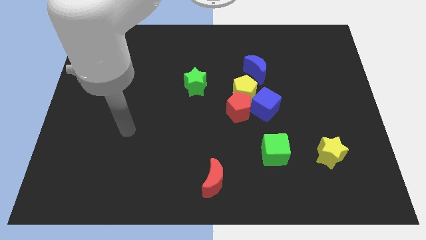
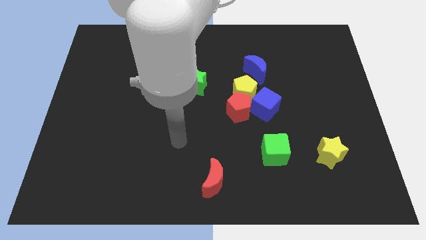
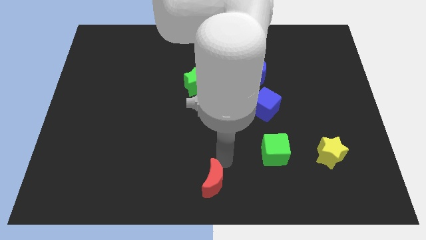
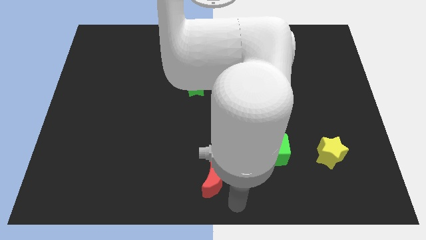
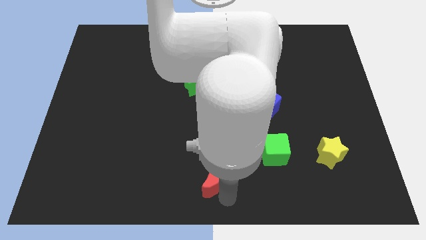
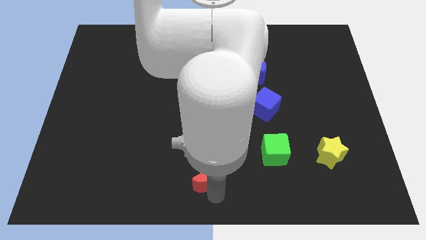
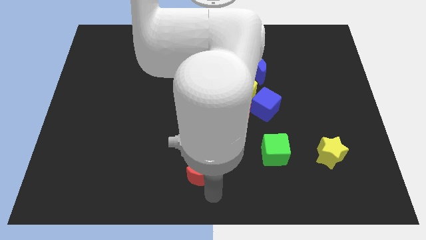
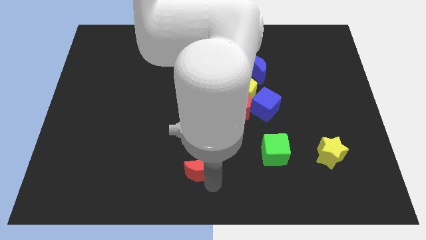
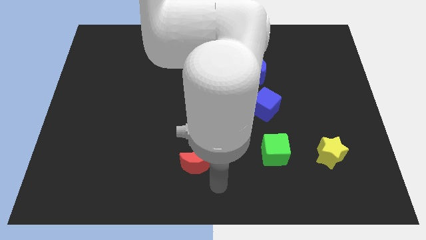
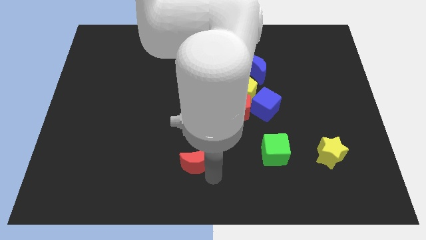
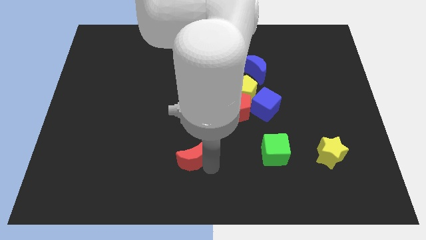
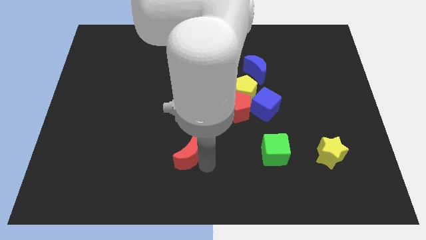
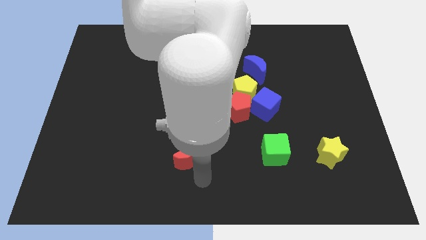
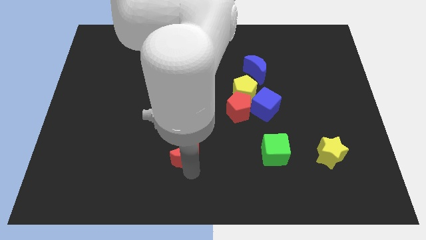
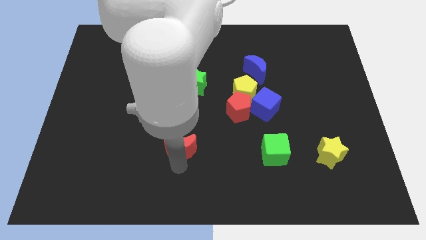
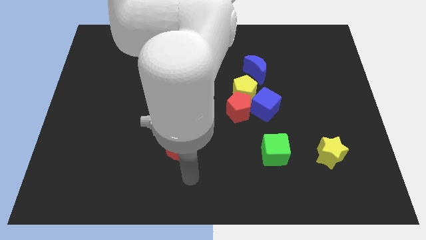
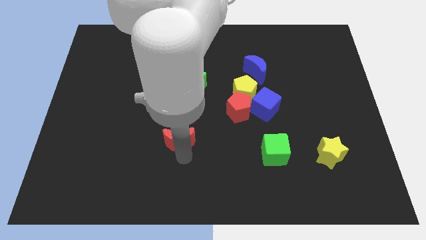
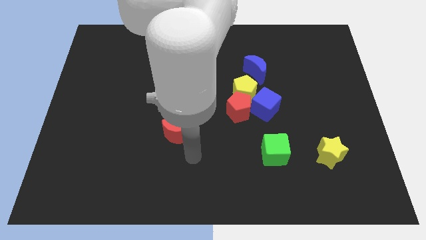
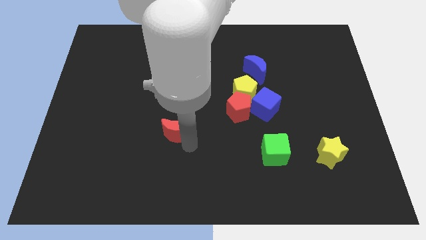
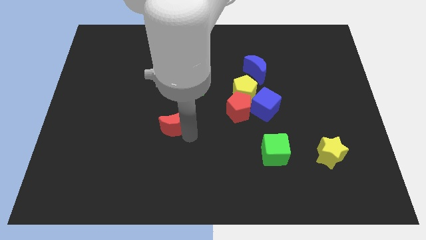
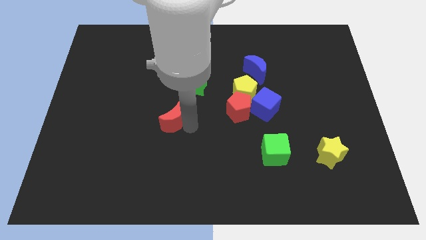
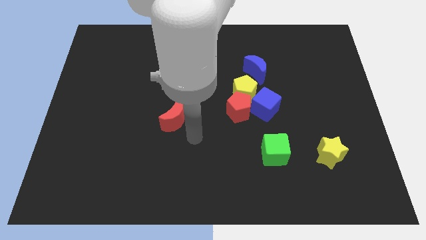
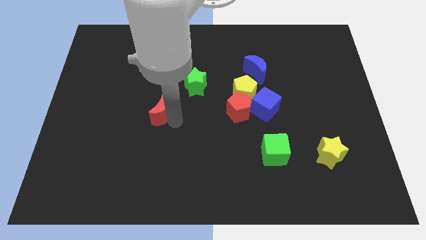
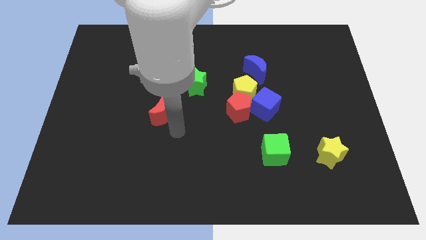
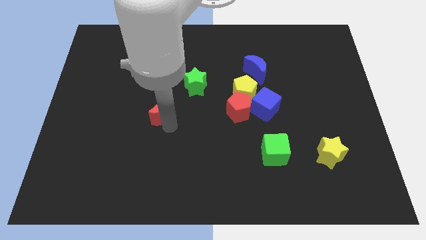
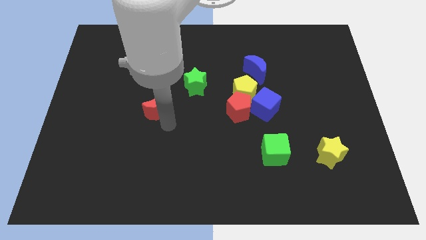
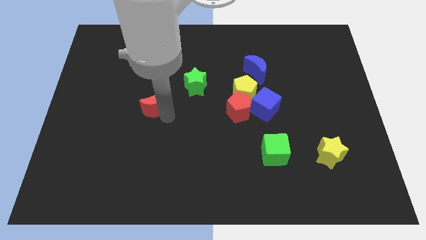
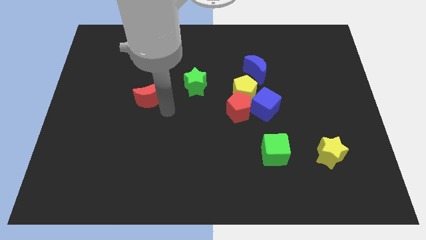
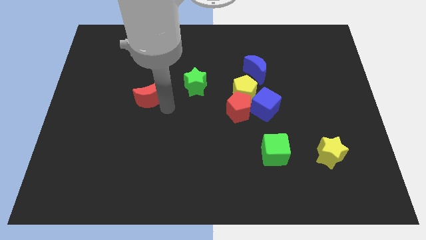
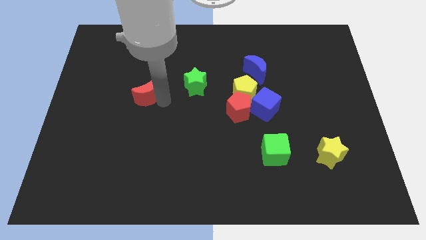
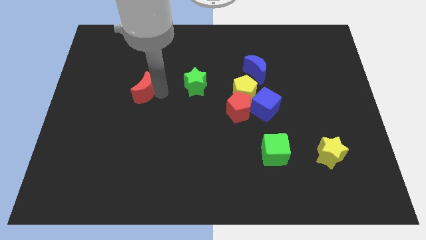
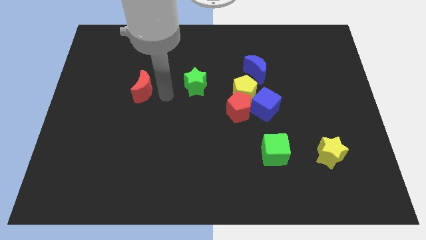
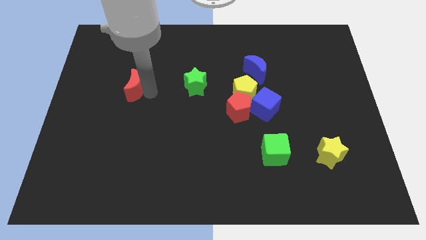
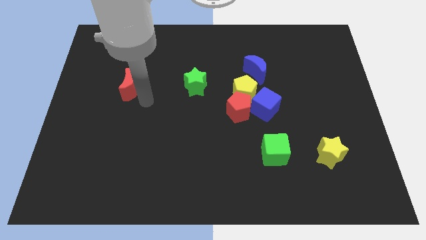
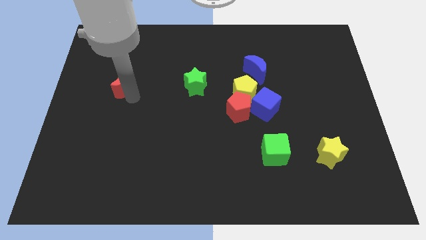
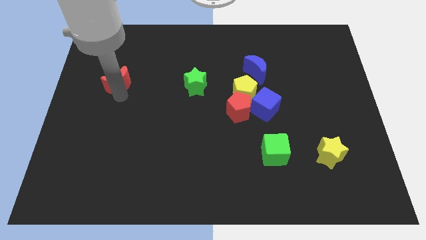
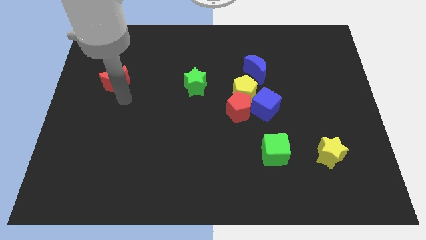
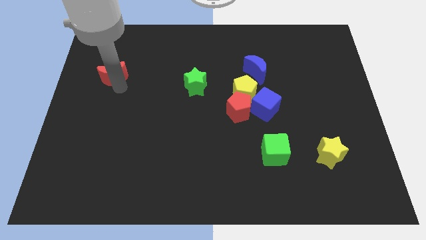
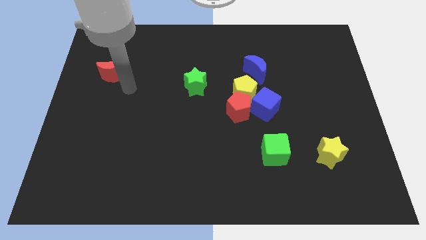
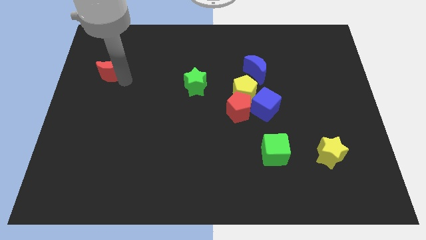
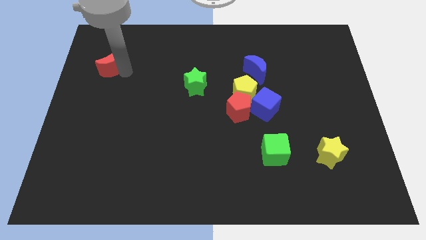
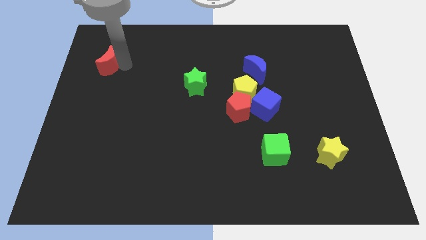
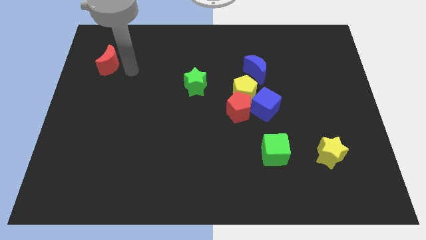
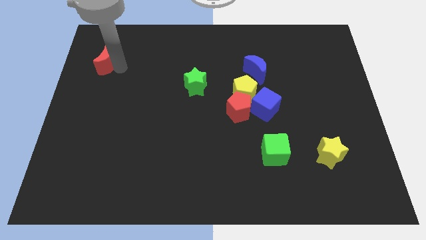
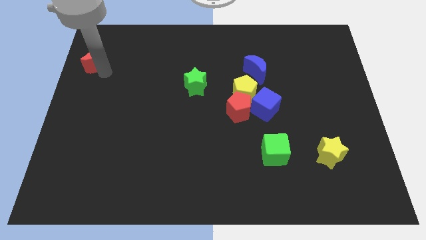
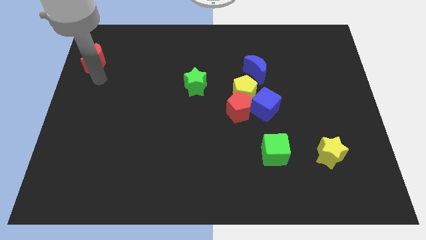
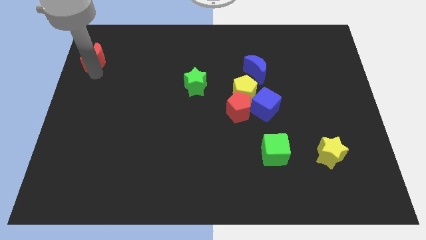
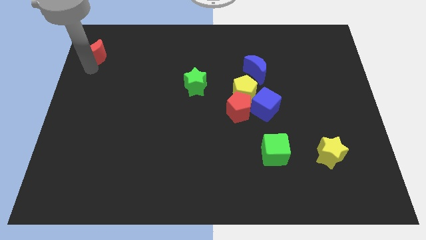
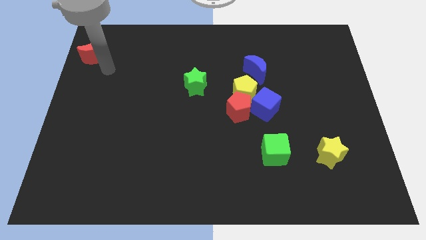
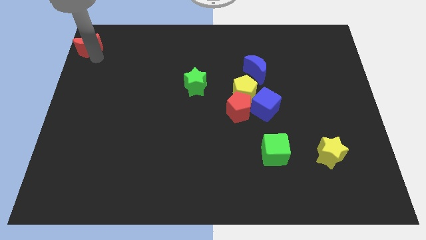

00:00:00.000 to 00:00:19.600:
put the red moon to the top left corner

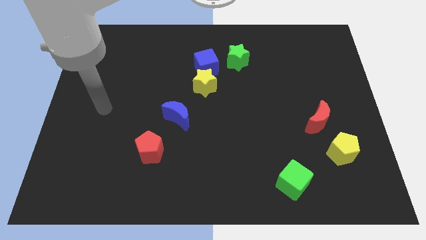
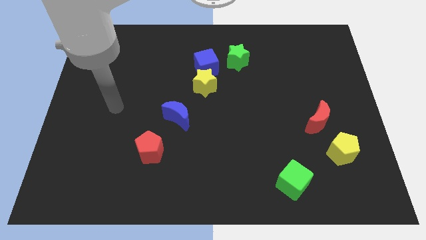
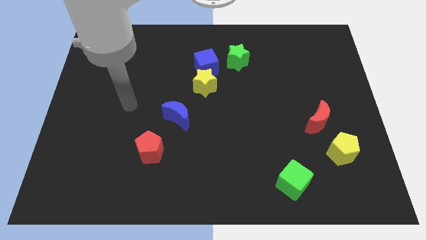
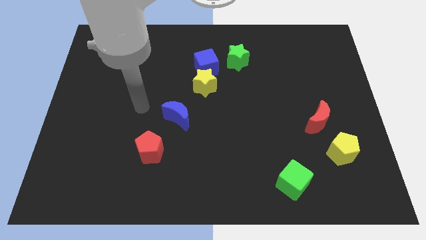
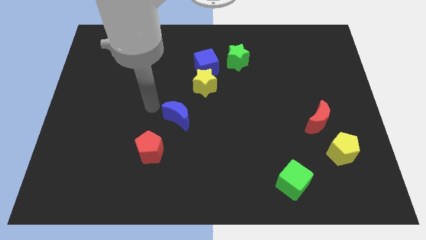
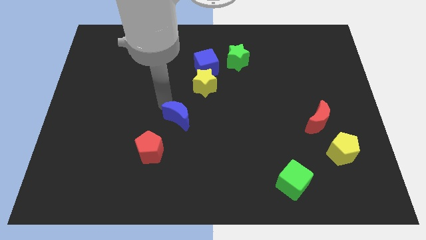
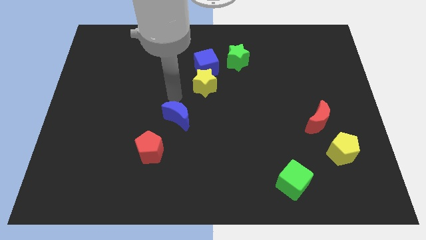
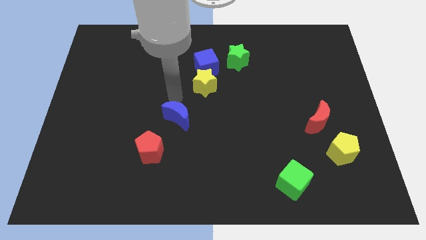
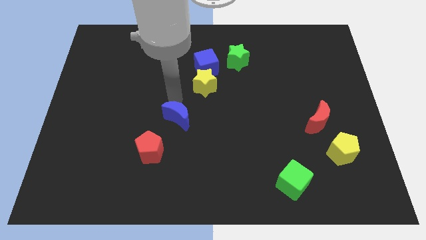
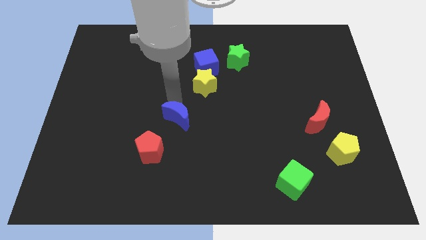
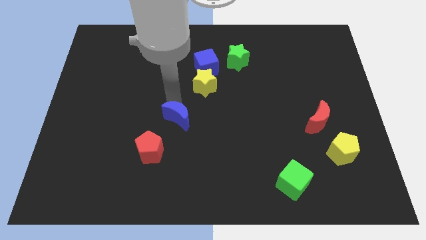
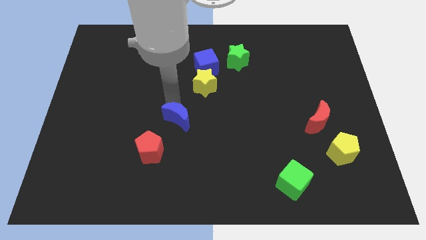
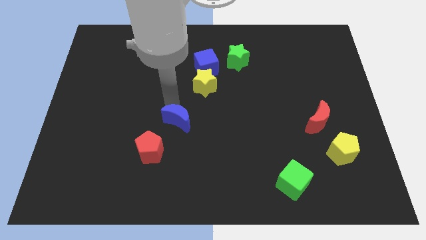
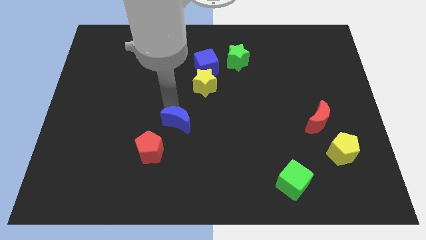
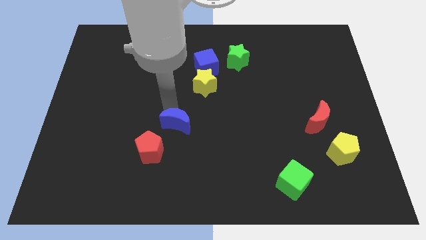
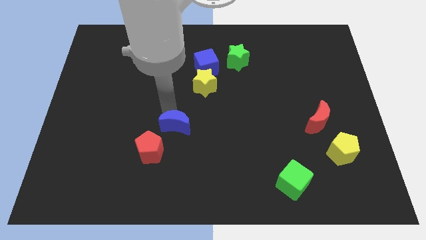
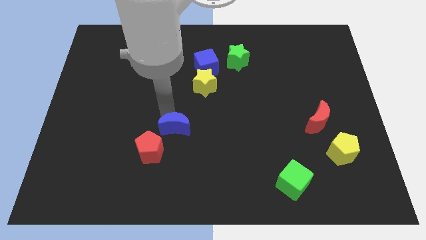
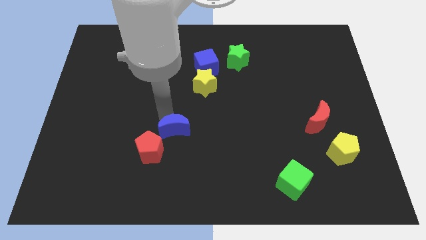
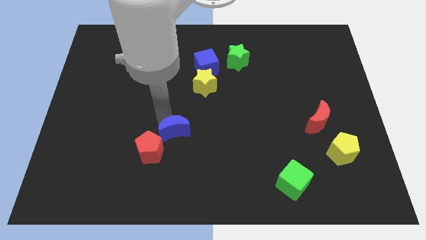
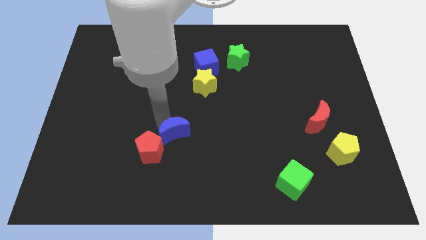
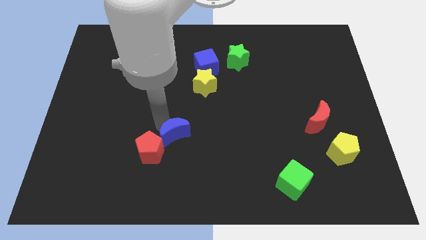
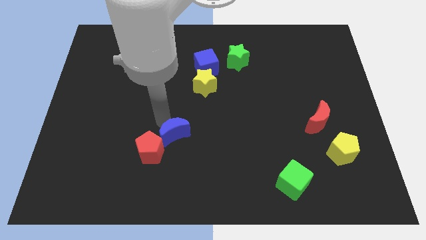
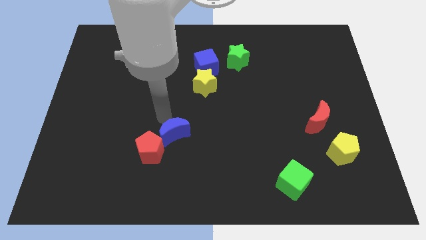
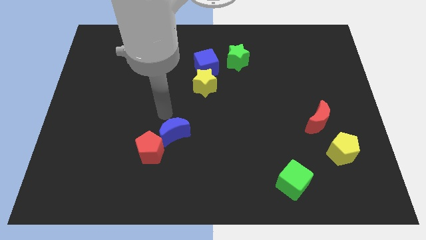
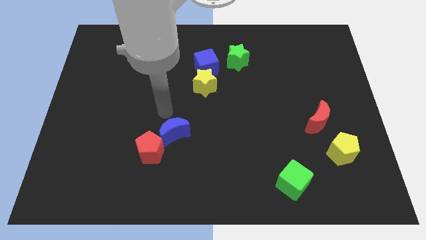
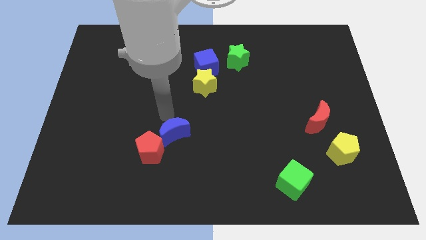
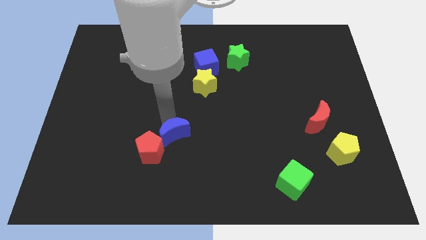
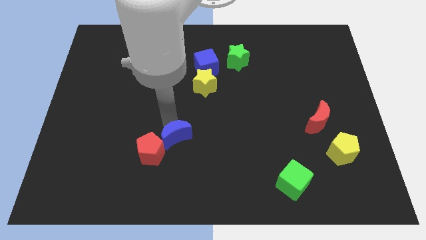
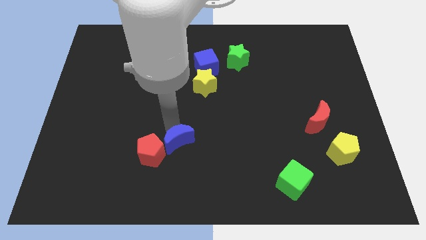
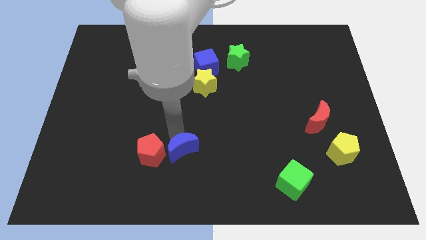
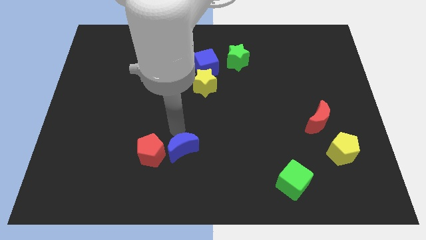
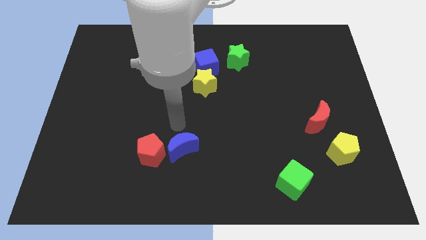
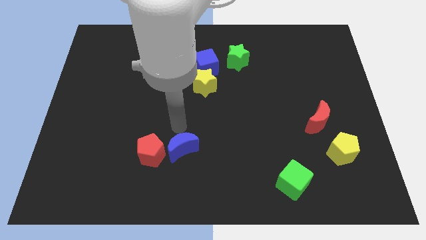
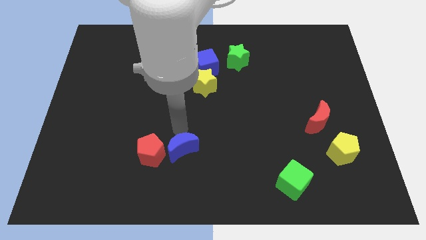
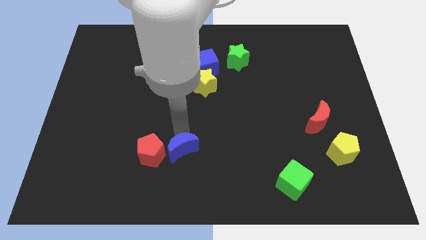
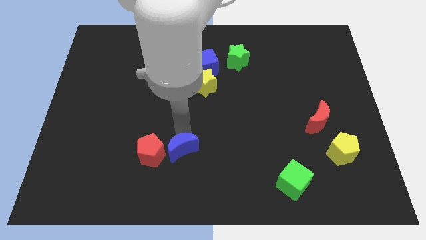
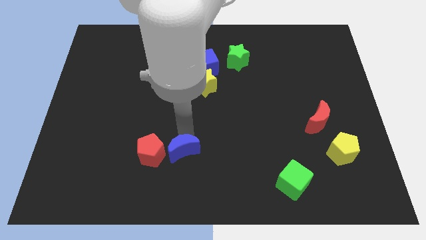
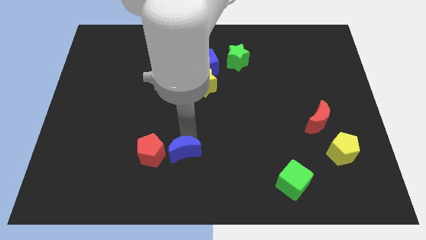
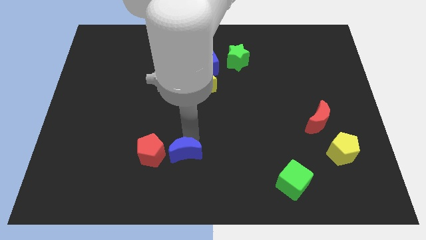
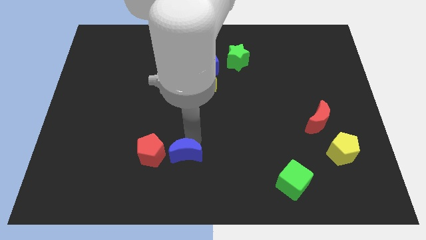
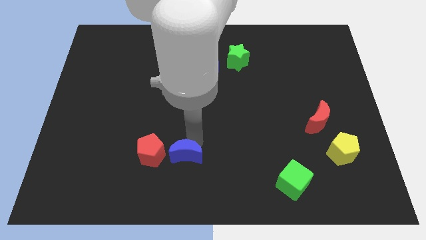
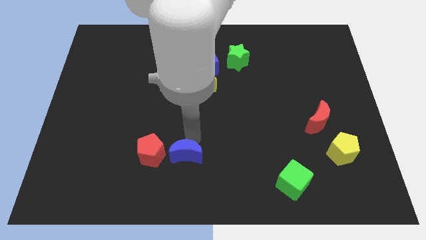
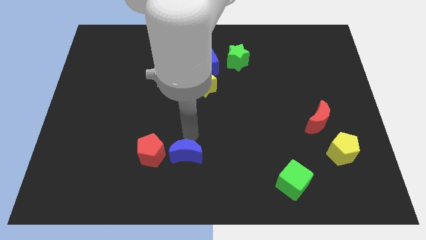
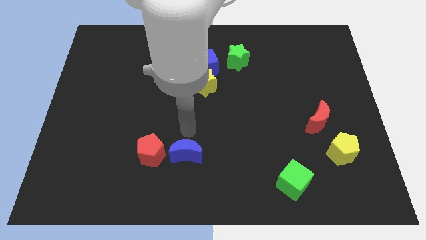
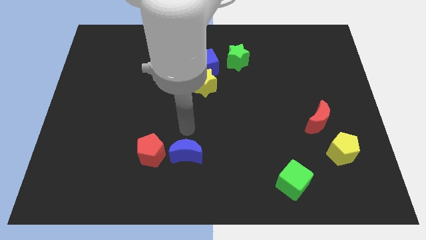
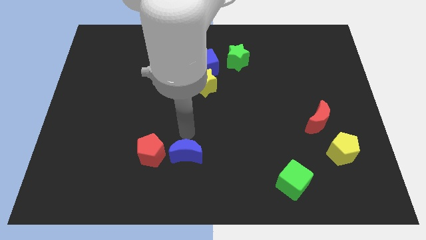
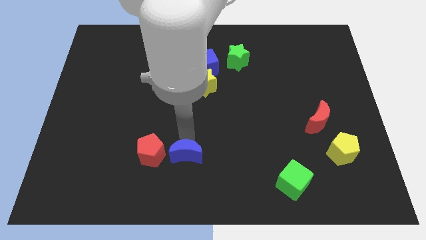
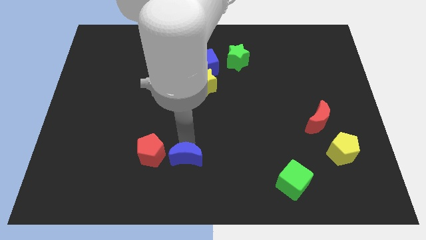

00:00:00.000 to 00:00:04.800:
move the blue moon to the bottom
